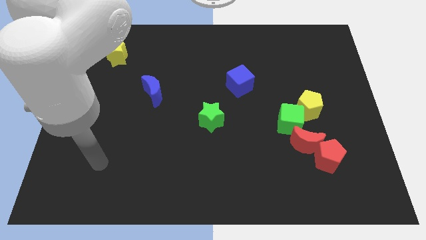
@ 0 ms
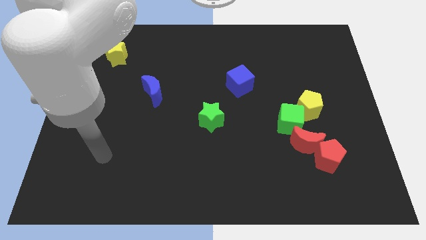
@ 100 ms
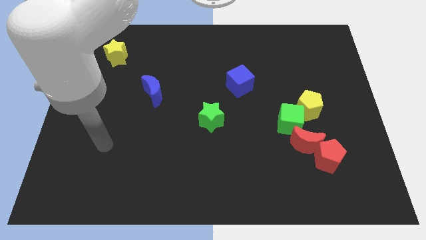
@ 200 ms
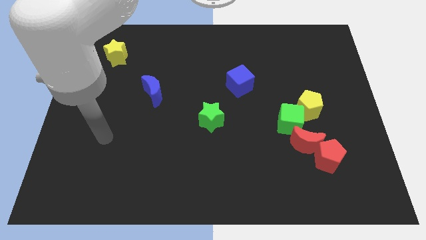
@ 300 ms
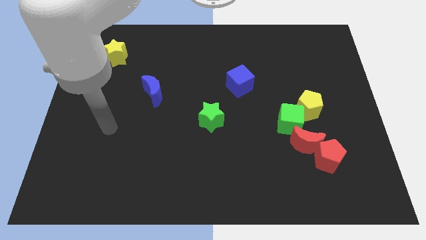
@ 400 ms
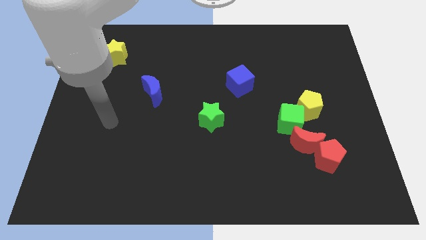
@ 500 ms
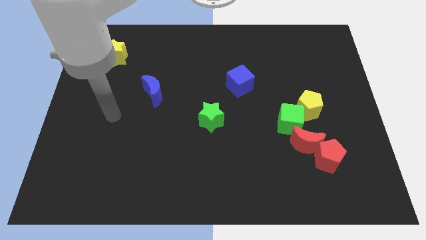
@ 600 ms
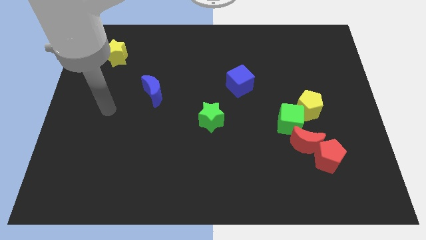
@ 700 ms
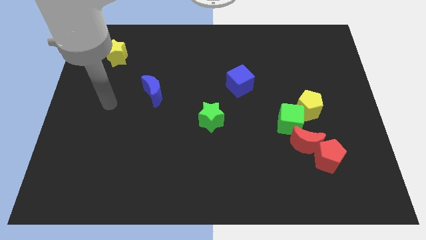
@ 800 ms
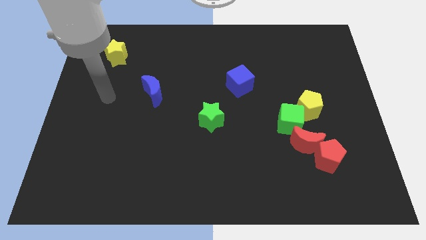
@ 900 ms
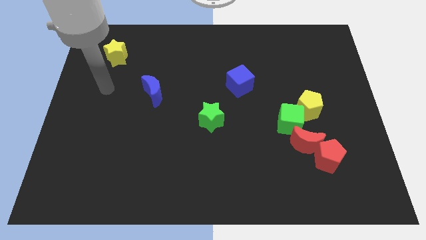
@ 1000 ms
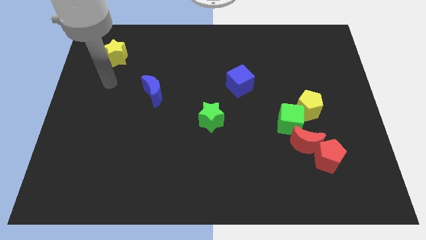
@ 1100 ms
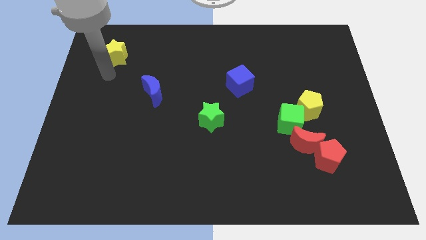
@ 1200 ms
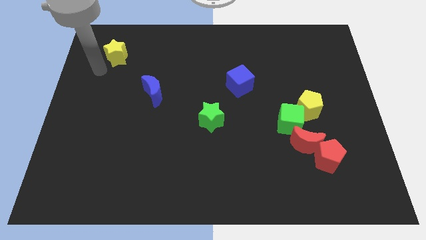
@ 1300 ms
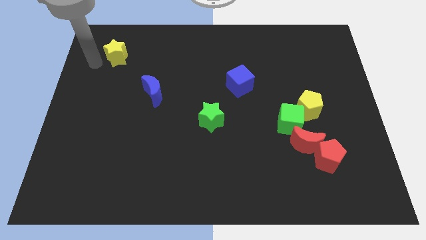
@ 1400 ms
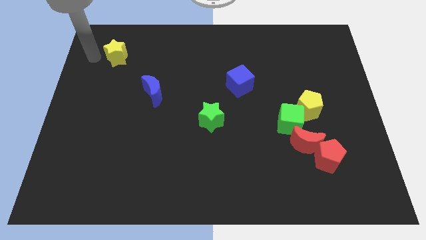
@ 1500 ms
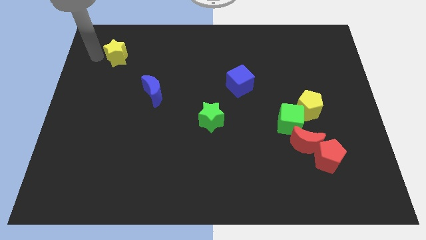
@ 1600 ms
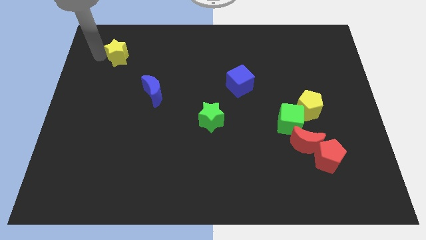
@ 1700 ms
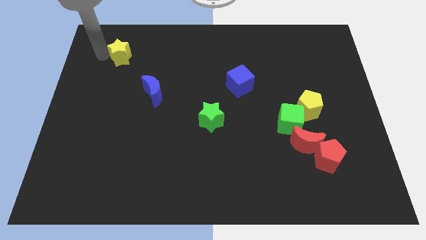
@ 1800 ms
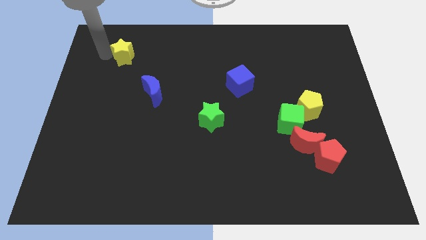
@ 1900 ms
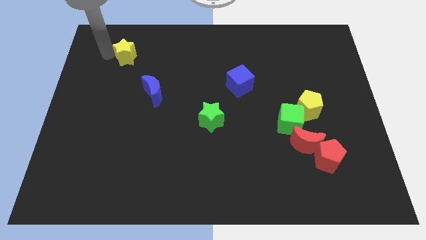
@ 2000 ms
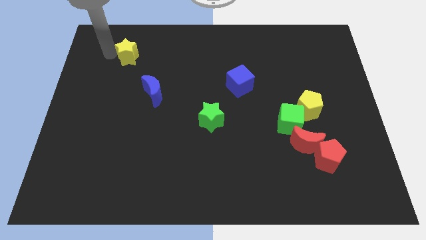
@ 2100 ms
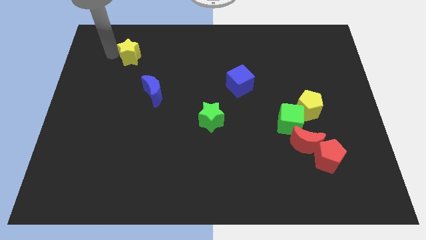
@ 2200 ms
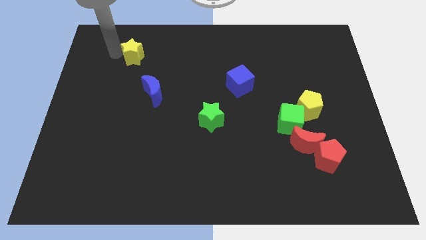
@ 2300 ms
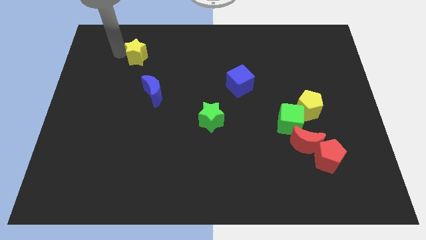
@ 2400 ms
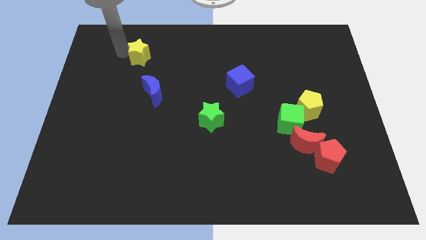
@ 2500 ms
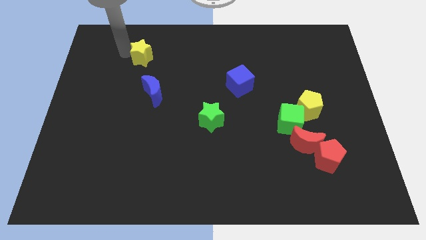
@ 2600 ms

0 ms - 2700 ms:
push the yellow star a bit to the right

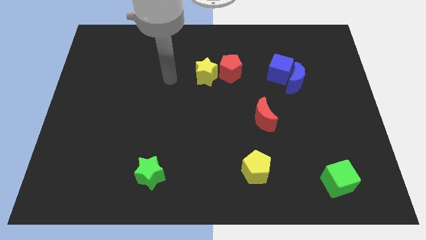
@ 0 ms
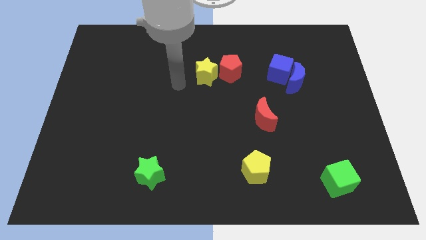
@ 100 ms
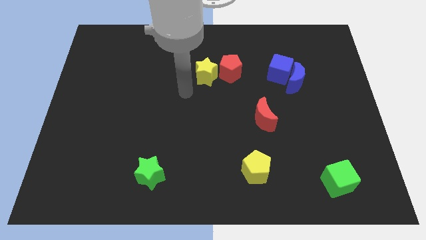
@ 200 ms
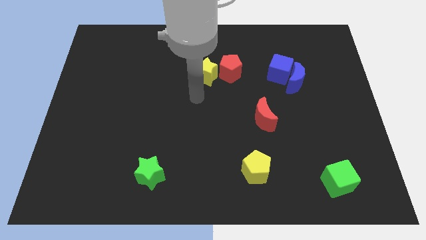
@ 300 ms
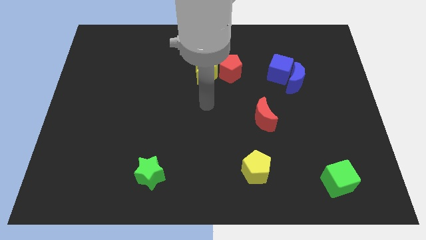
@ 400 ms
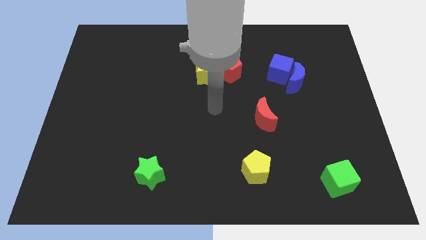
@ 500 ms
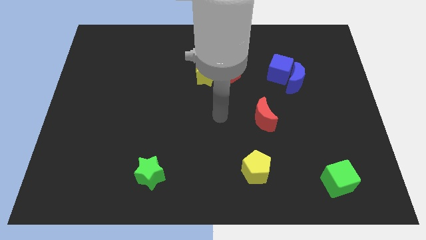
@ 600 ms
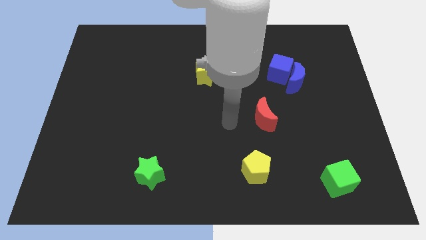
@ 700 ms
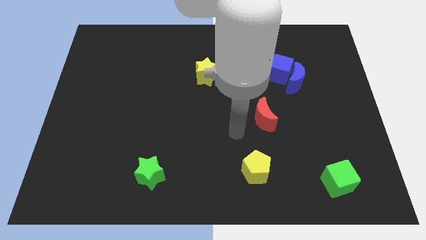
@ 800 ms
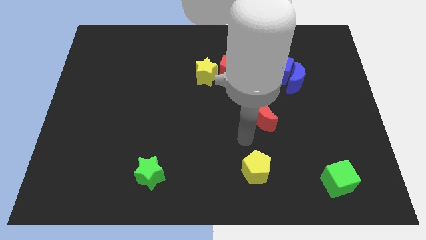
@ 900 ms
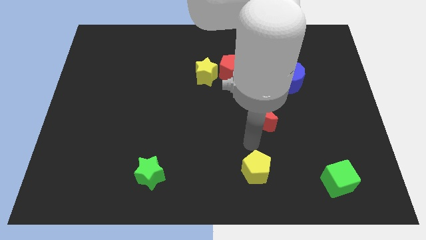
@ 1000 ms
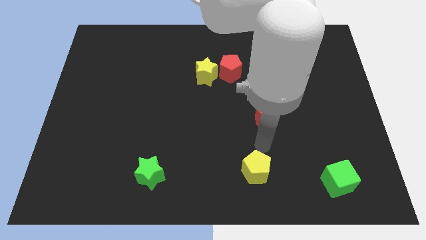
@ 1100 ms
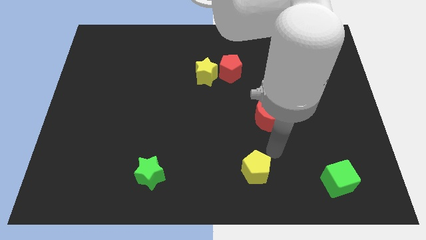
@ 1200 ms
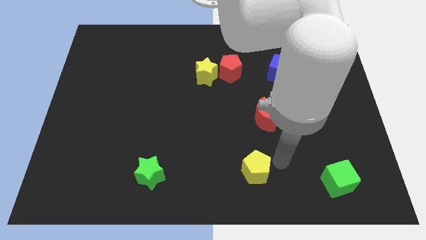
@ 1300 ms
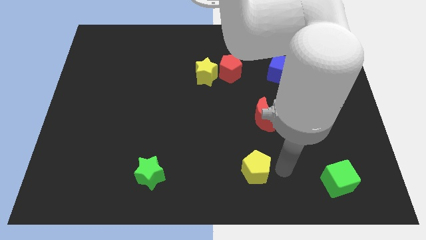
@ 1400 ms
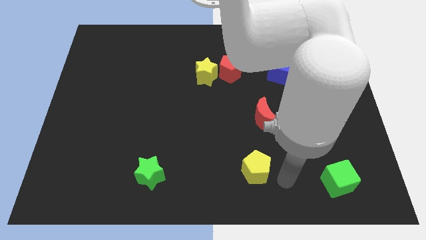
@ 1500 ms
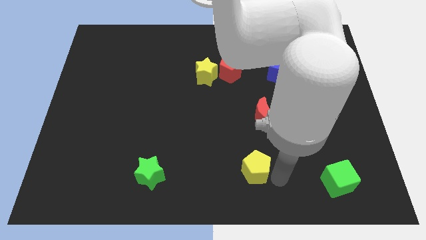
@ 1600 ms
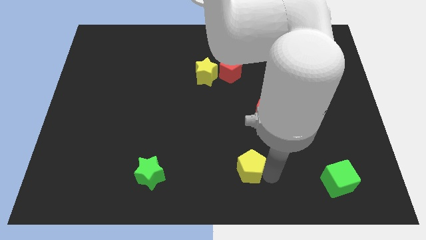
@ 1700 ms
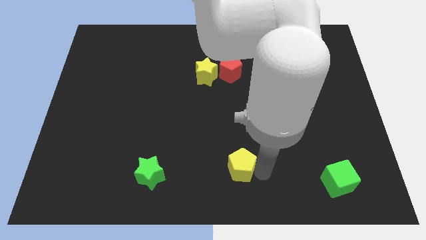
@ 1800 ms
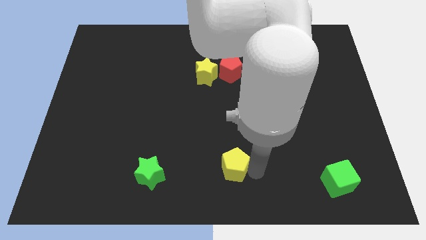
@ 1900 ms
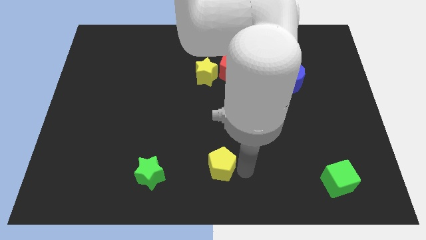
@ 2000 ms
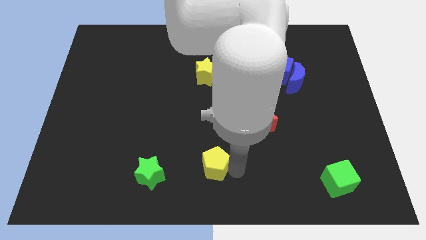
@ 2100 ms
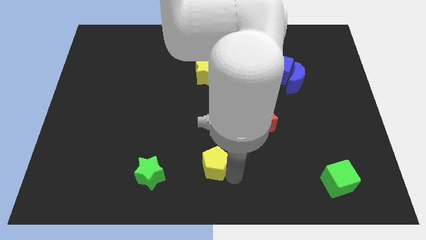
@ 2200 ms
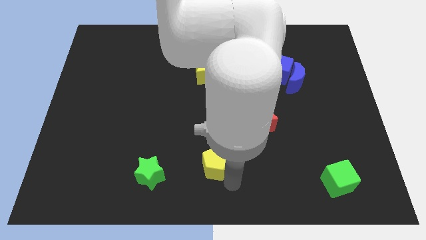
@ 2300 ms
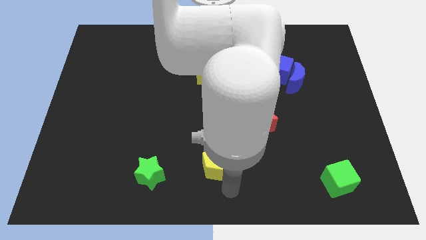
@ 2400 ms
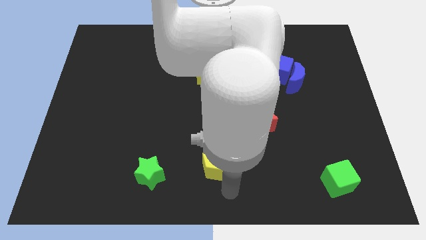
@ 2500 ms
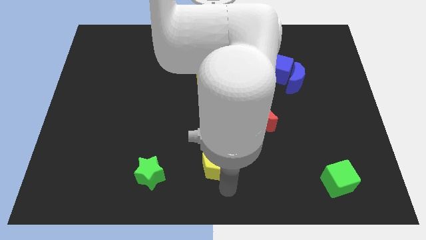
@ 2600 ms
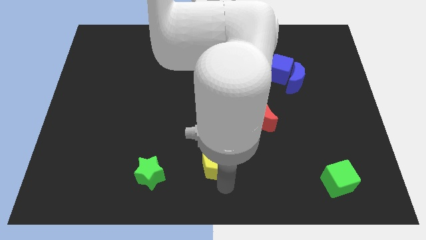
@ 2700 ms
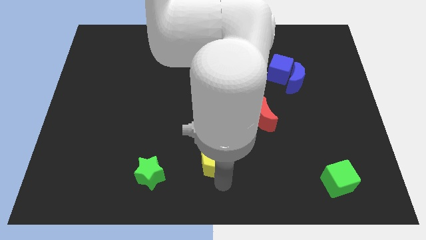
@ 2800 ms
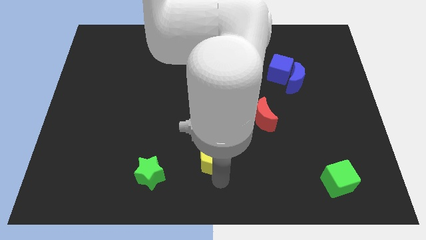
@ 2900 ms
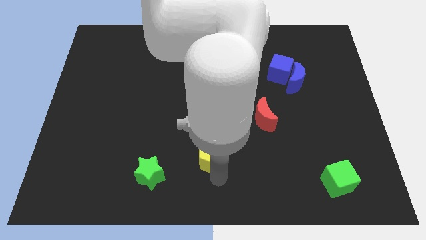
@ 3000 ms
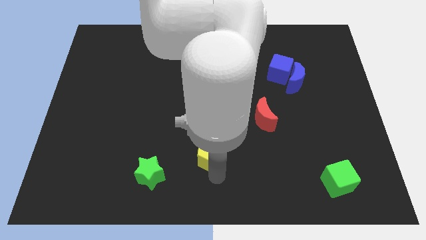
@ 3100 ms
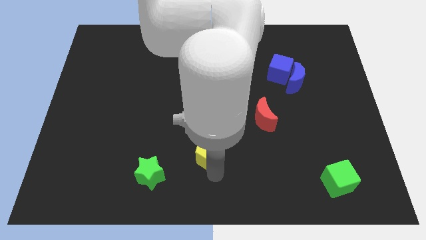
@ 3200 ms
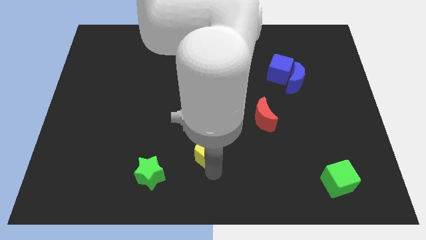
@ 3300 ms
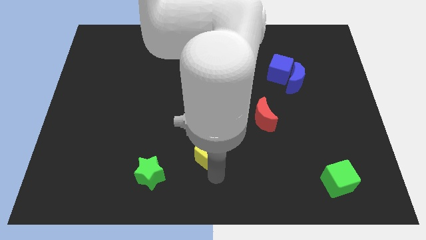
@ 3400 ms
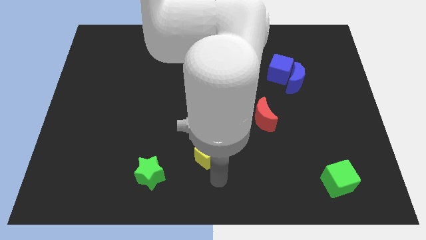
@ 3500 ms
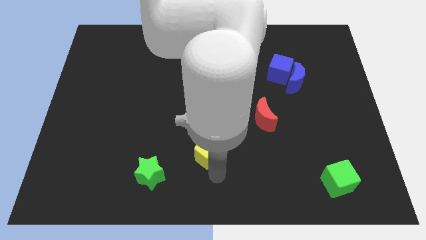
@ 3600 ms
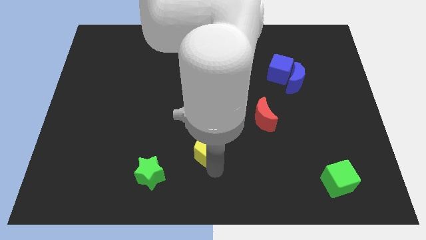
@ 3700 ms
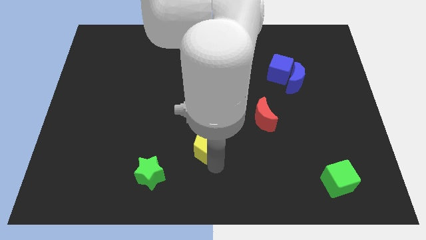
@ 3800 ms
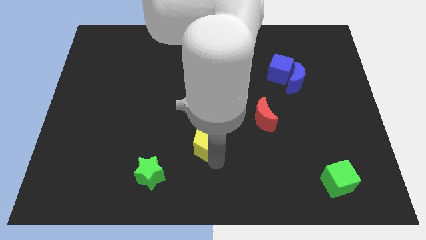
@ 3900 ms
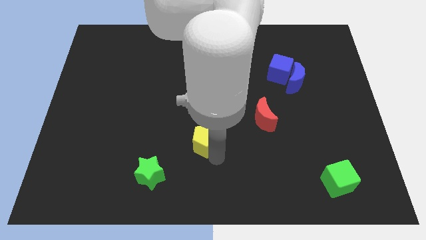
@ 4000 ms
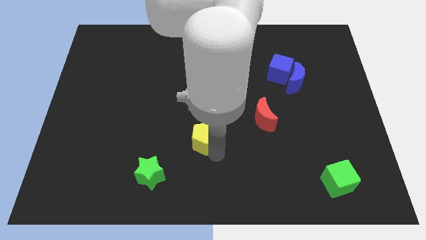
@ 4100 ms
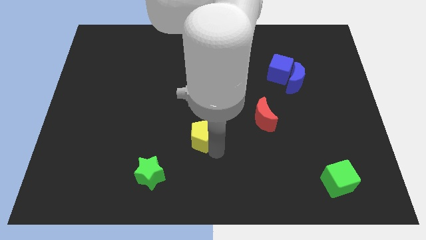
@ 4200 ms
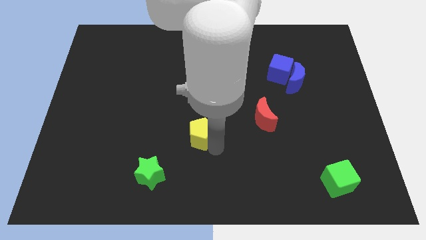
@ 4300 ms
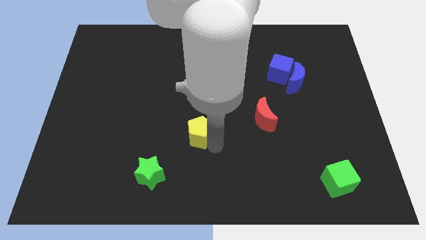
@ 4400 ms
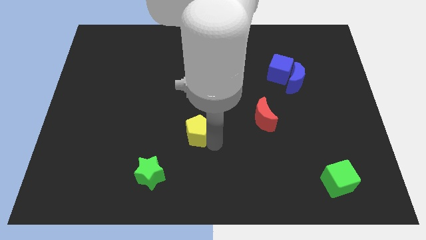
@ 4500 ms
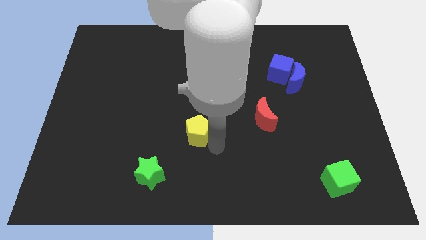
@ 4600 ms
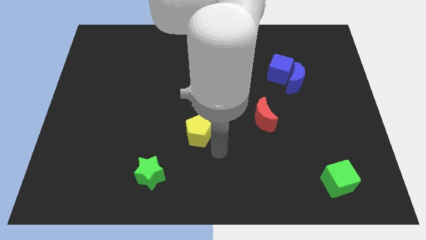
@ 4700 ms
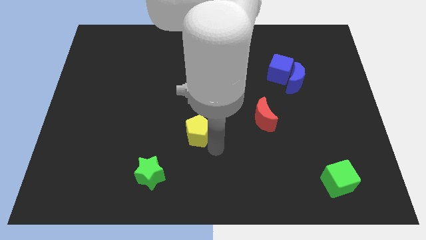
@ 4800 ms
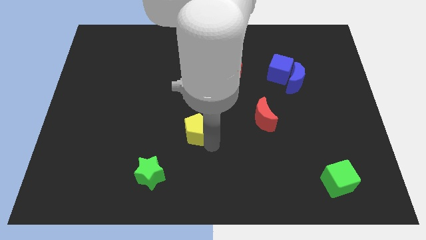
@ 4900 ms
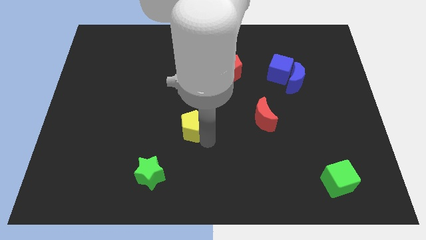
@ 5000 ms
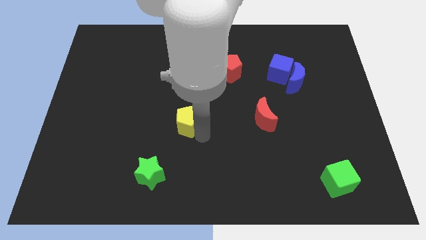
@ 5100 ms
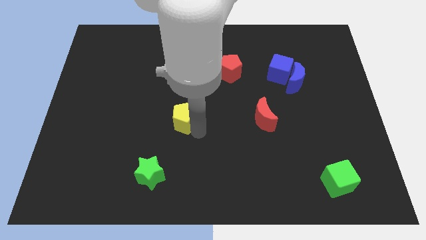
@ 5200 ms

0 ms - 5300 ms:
move the yellow pentagon diagonally upwards and to the left
